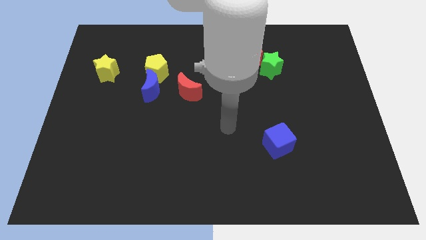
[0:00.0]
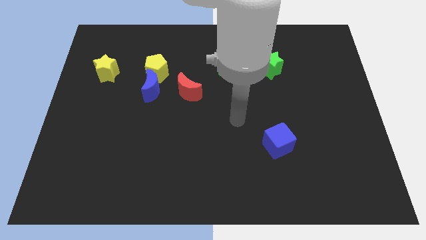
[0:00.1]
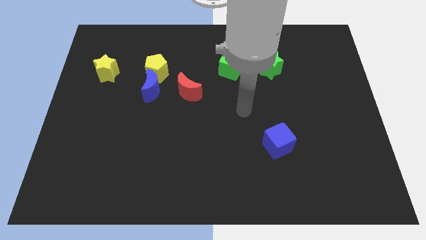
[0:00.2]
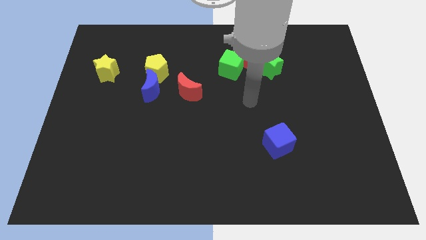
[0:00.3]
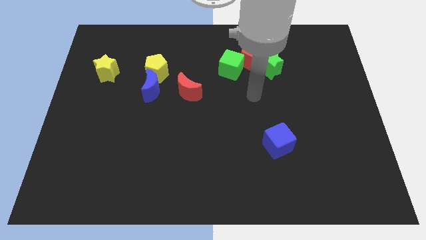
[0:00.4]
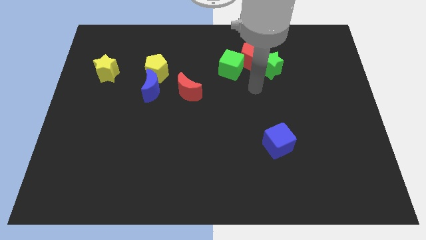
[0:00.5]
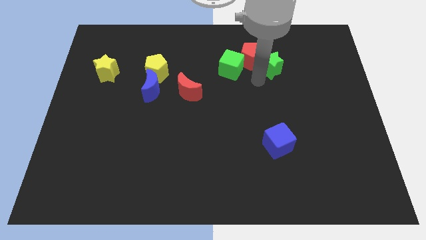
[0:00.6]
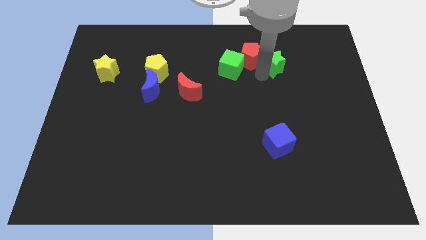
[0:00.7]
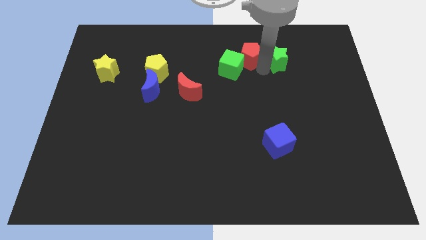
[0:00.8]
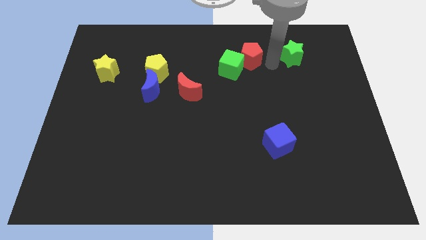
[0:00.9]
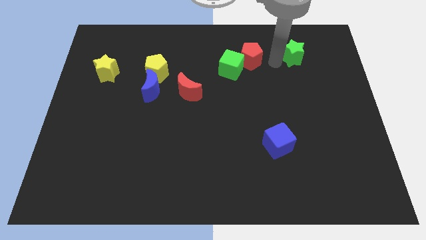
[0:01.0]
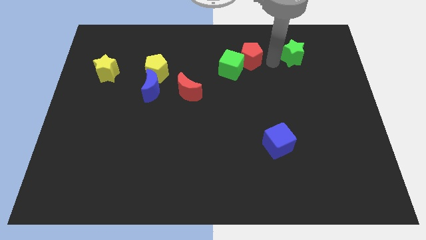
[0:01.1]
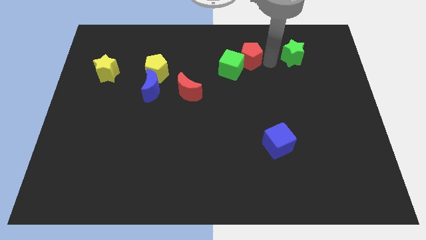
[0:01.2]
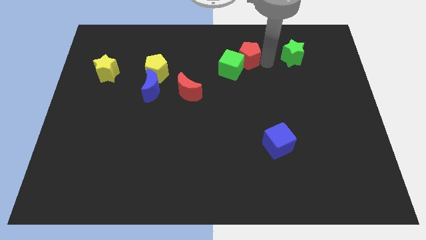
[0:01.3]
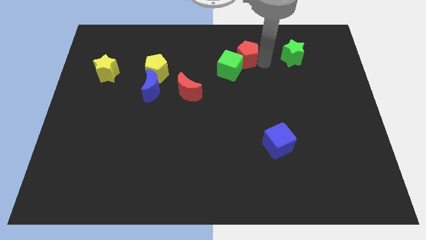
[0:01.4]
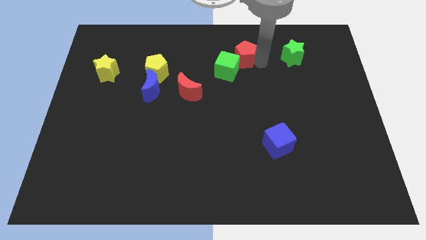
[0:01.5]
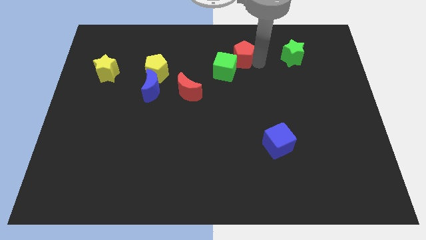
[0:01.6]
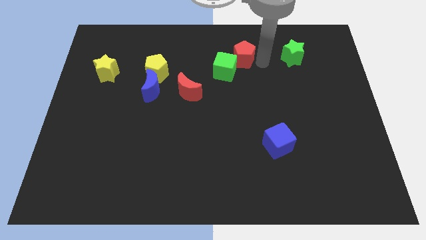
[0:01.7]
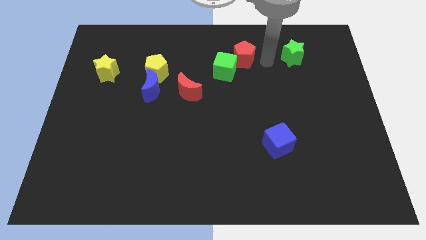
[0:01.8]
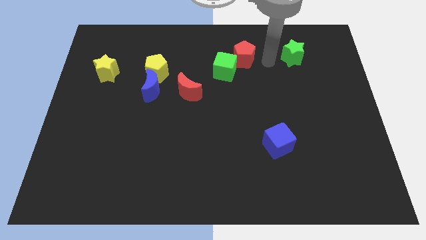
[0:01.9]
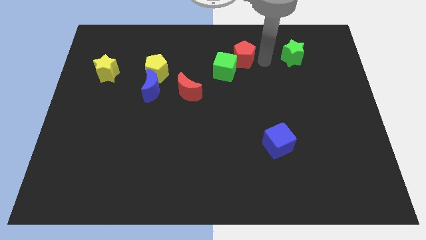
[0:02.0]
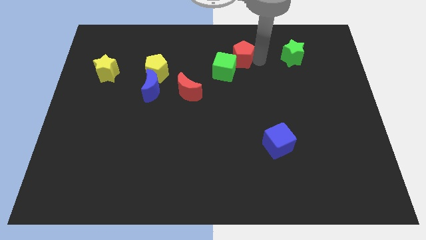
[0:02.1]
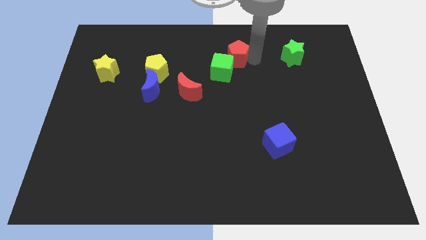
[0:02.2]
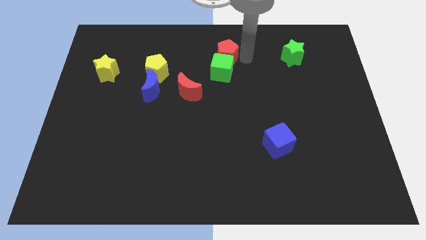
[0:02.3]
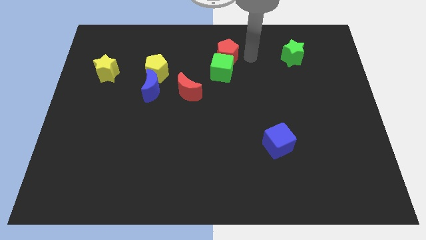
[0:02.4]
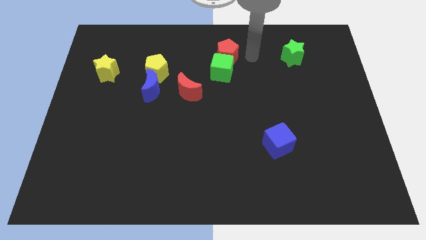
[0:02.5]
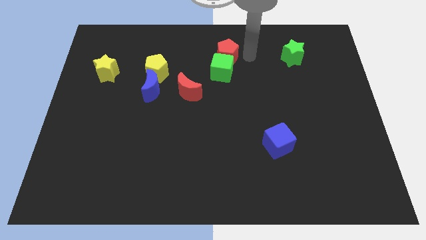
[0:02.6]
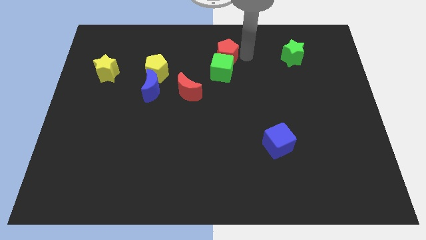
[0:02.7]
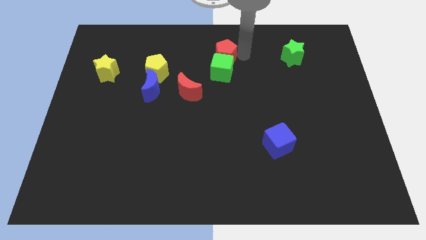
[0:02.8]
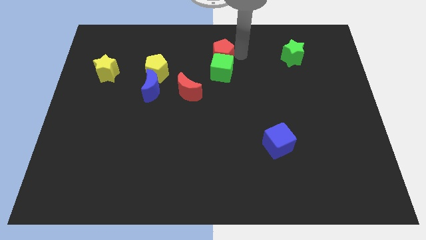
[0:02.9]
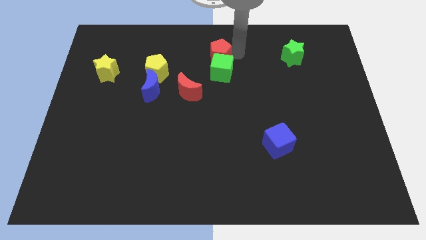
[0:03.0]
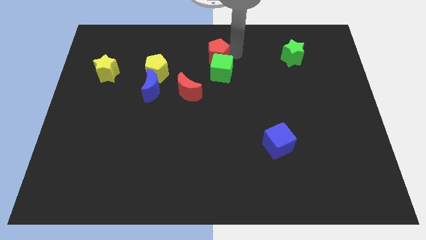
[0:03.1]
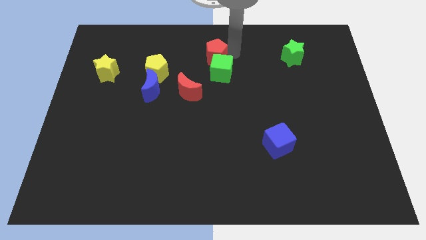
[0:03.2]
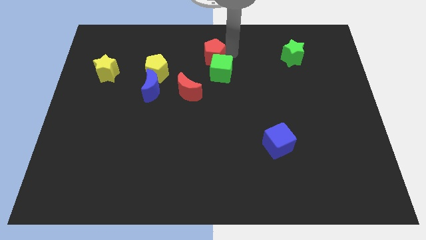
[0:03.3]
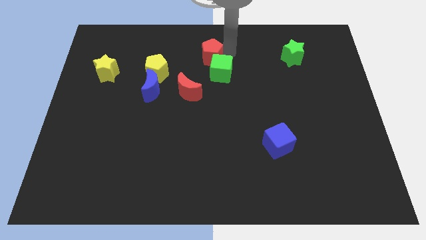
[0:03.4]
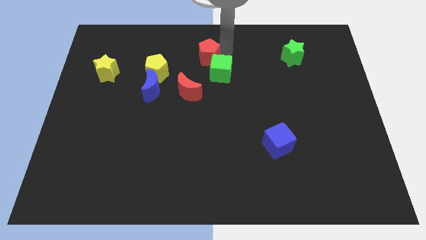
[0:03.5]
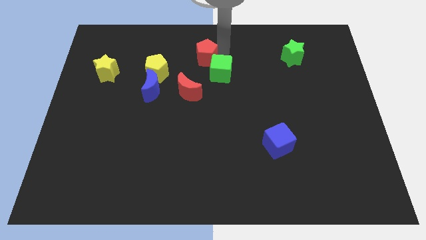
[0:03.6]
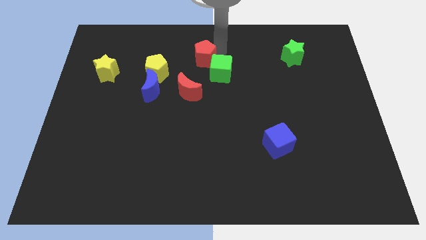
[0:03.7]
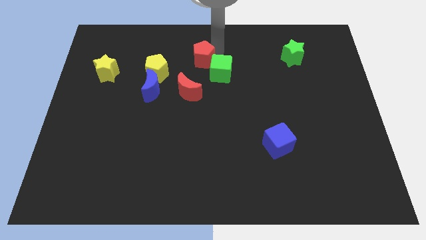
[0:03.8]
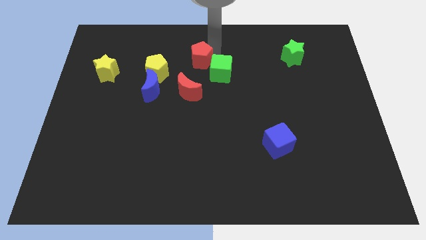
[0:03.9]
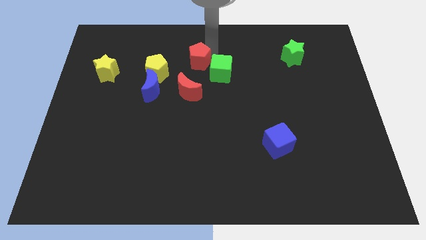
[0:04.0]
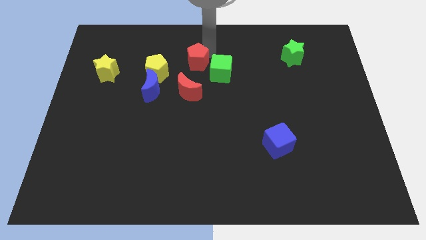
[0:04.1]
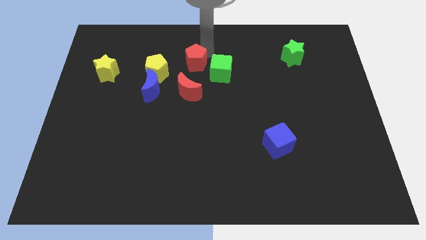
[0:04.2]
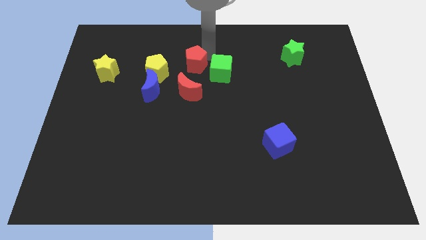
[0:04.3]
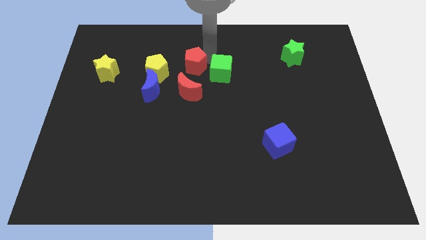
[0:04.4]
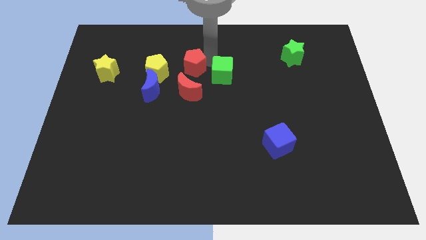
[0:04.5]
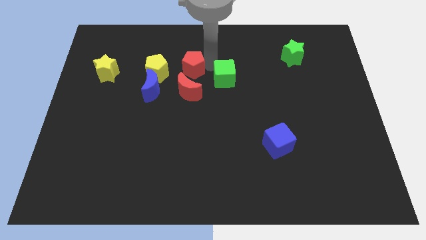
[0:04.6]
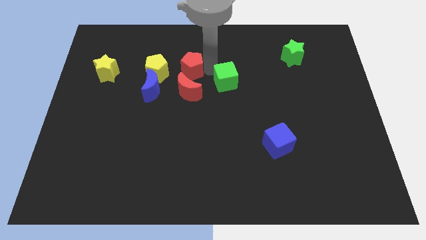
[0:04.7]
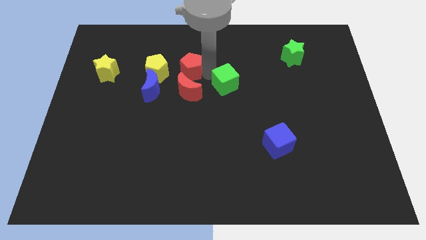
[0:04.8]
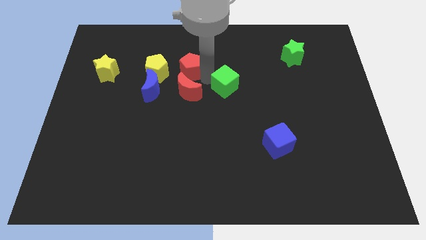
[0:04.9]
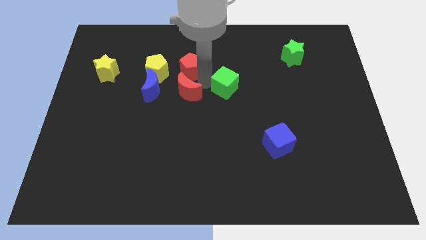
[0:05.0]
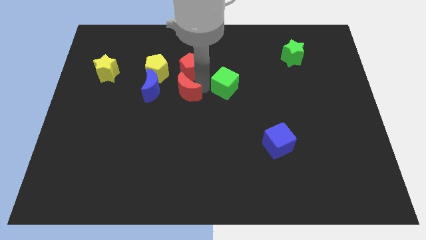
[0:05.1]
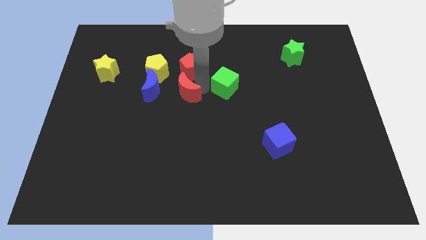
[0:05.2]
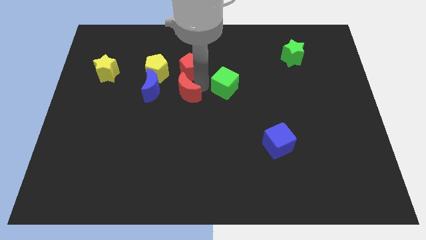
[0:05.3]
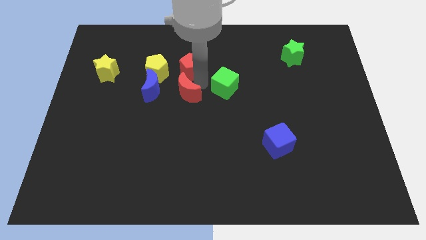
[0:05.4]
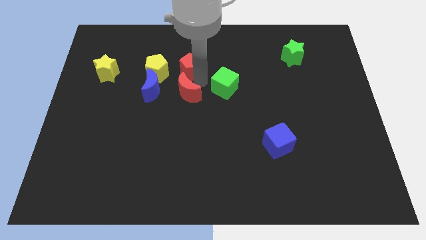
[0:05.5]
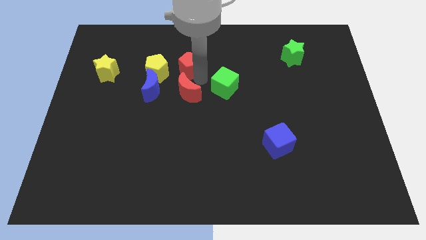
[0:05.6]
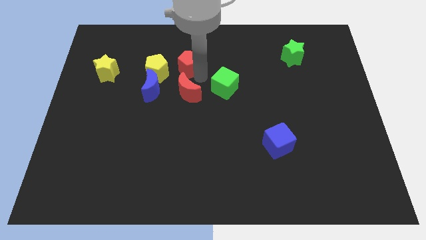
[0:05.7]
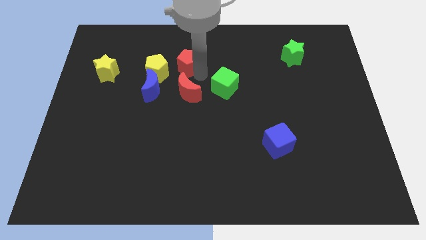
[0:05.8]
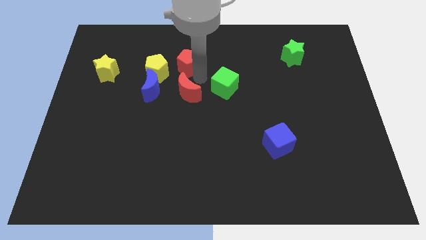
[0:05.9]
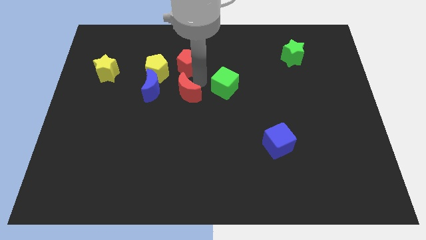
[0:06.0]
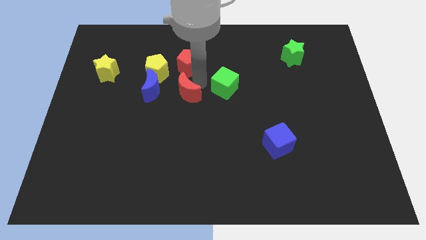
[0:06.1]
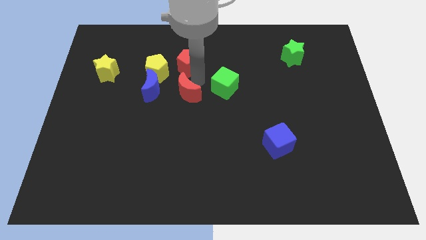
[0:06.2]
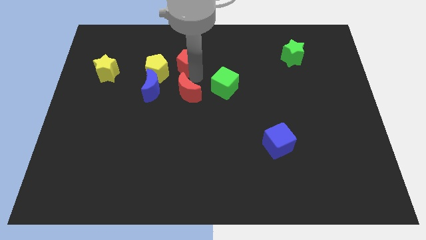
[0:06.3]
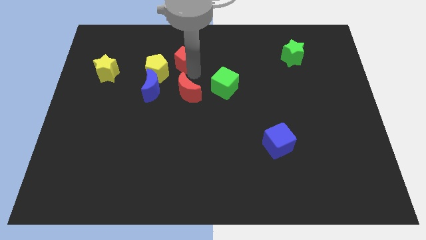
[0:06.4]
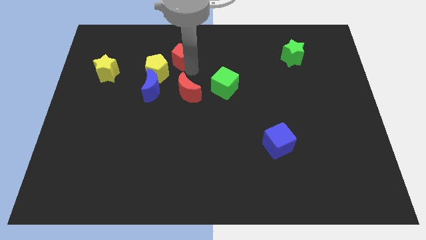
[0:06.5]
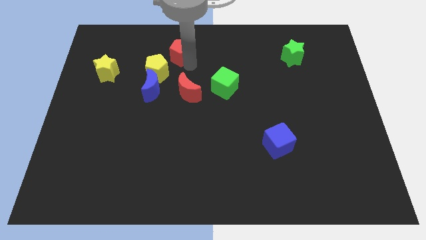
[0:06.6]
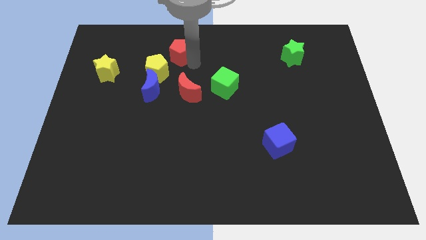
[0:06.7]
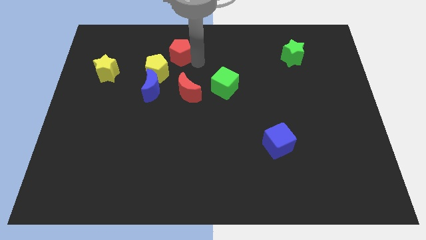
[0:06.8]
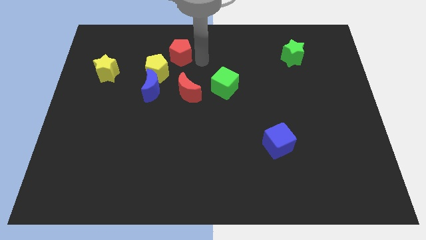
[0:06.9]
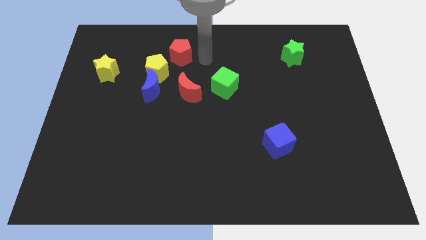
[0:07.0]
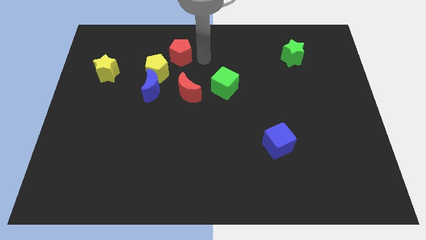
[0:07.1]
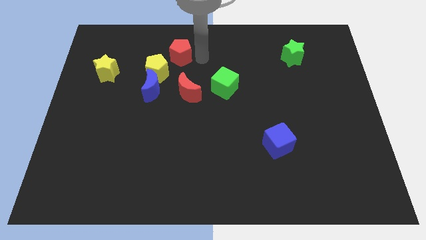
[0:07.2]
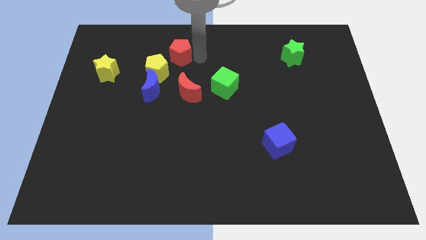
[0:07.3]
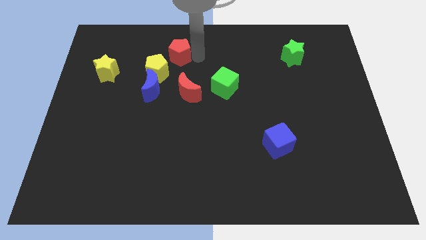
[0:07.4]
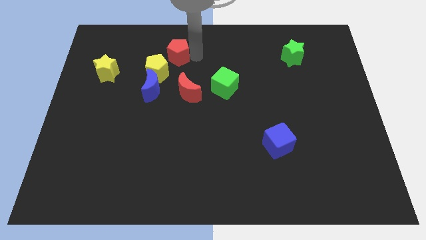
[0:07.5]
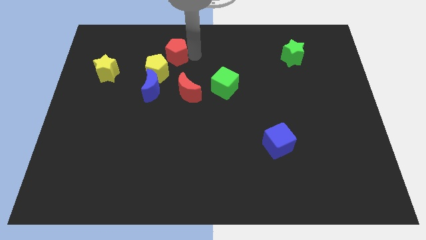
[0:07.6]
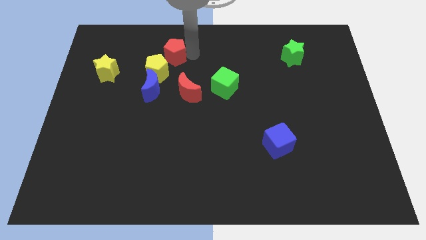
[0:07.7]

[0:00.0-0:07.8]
push the red pentagon to the left

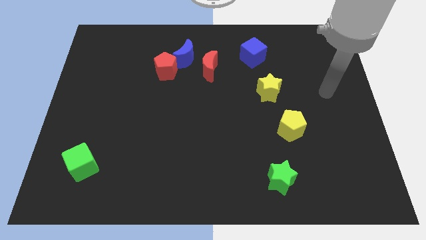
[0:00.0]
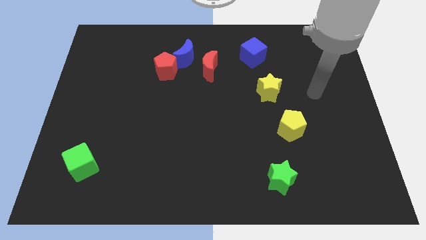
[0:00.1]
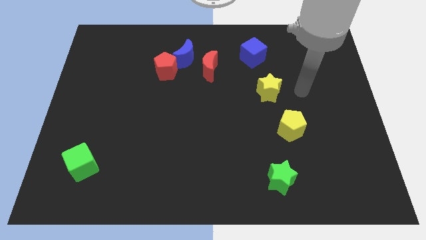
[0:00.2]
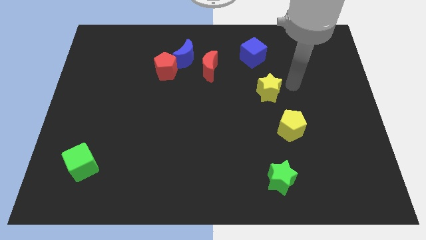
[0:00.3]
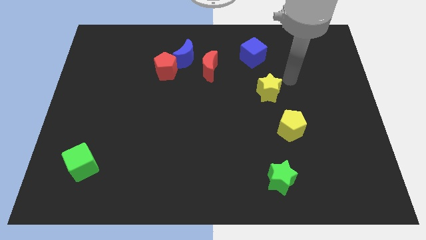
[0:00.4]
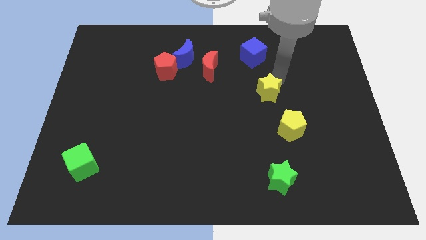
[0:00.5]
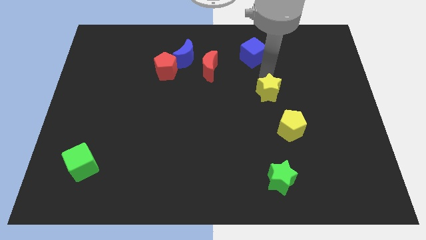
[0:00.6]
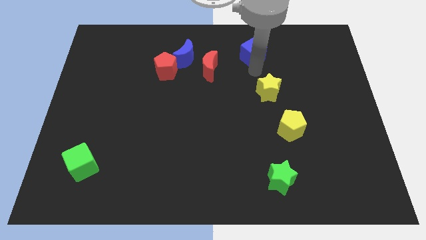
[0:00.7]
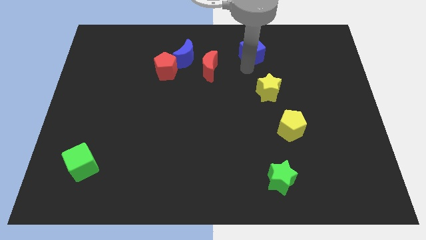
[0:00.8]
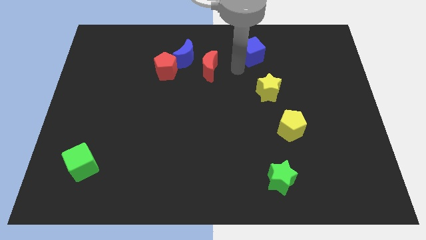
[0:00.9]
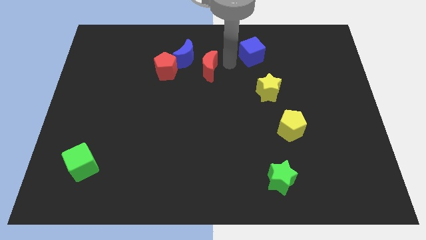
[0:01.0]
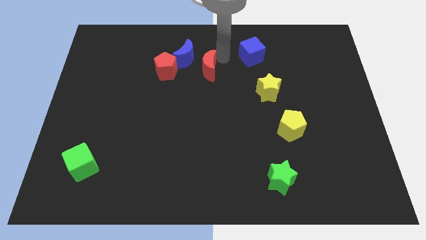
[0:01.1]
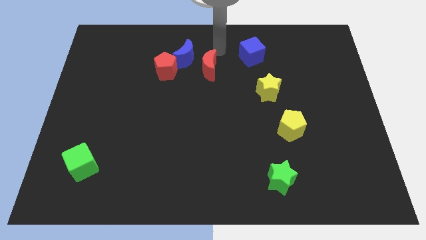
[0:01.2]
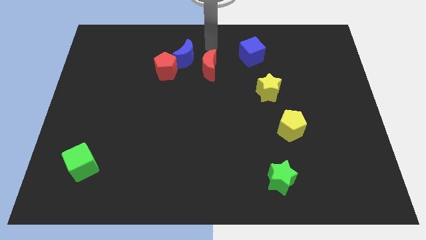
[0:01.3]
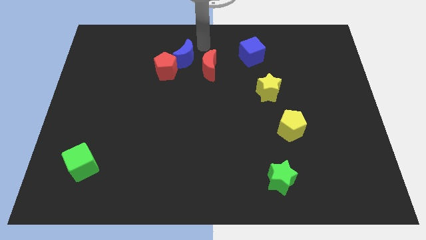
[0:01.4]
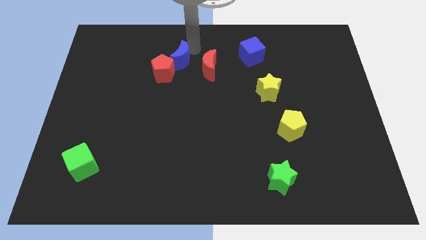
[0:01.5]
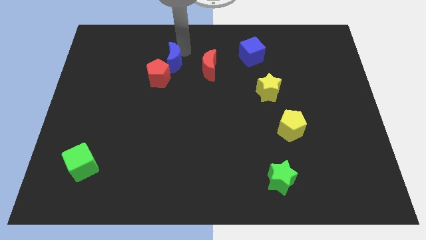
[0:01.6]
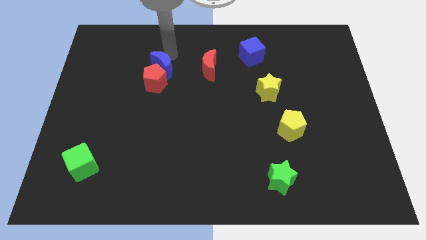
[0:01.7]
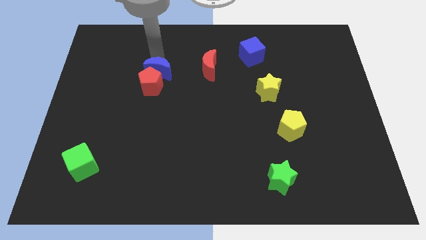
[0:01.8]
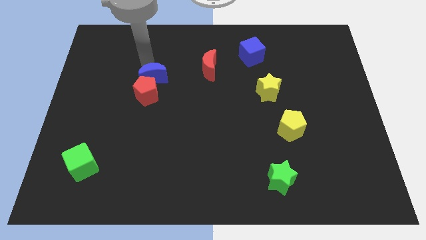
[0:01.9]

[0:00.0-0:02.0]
slide the red pentagon down a little bit
